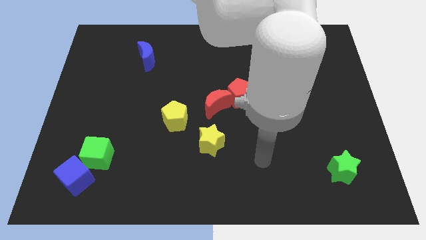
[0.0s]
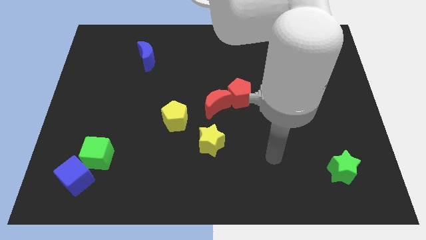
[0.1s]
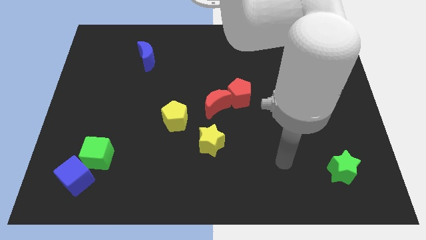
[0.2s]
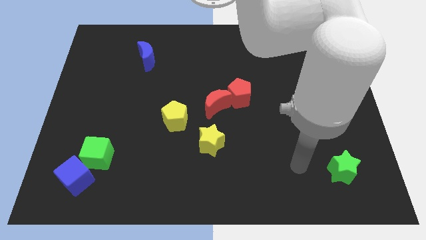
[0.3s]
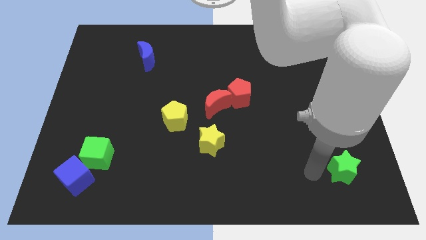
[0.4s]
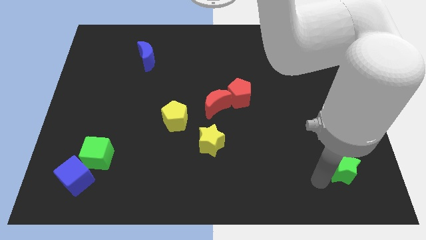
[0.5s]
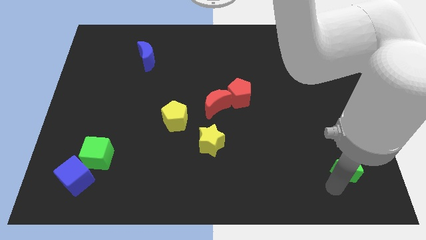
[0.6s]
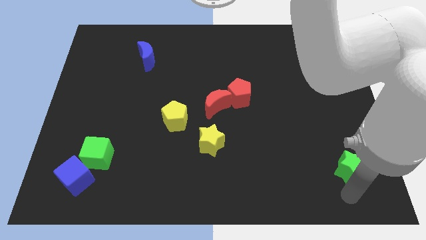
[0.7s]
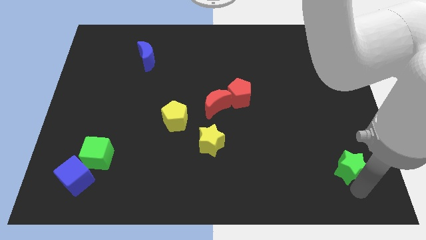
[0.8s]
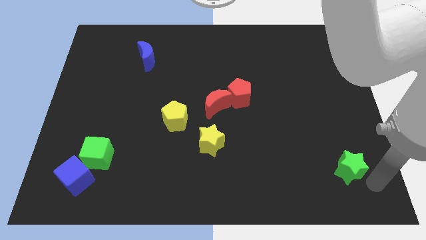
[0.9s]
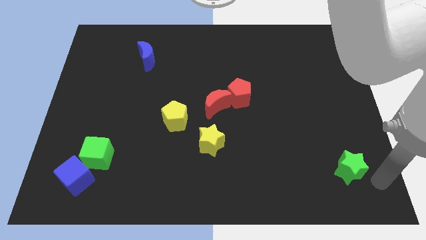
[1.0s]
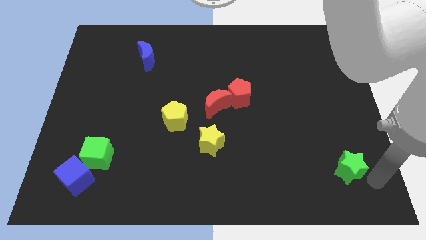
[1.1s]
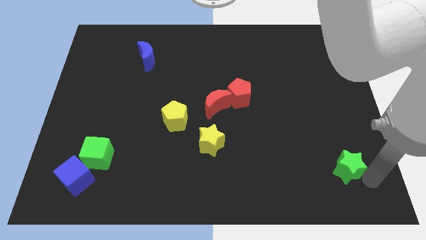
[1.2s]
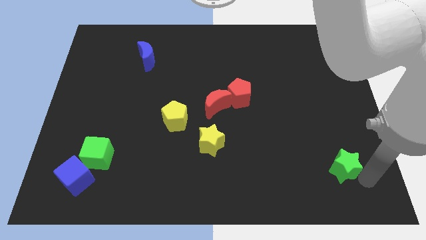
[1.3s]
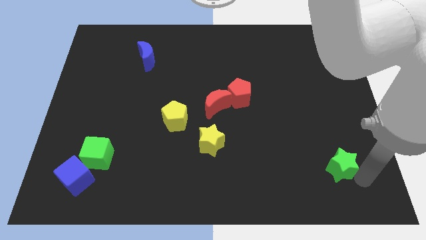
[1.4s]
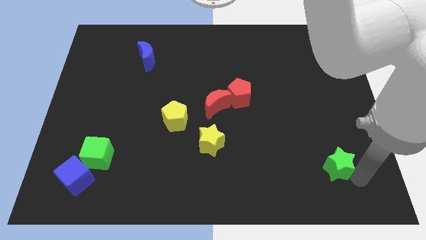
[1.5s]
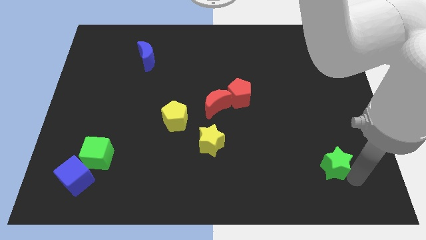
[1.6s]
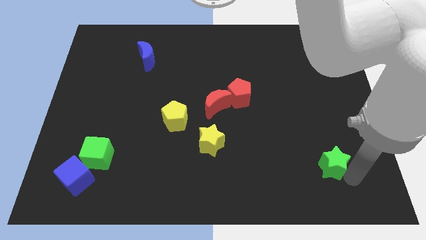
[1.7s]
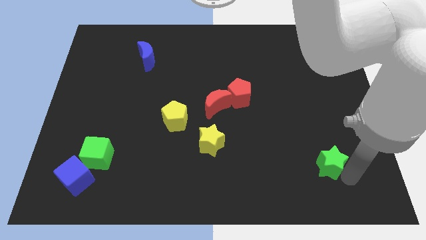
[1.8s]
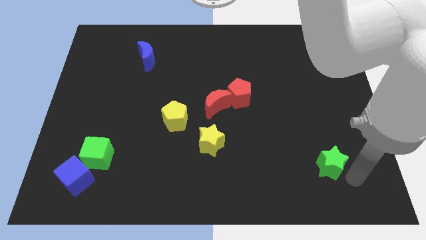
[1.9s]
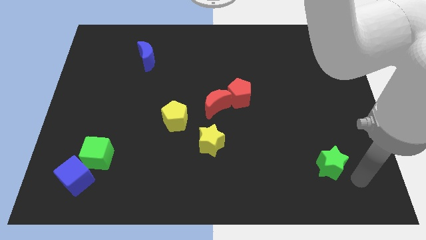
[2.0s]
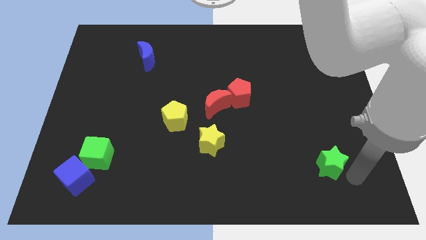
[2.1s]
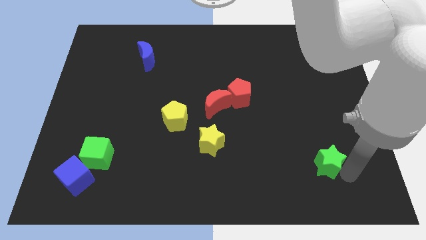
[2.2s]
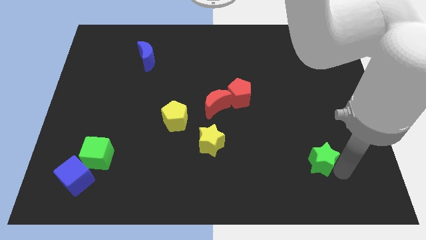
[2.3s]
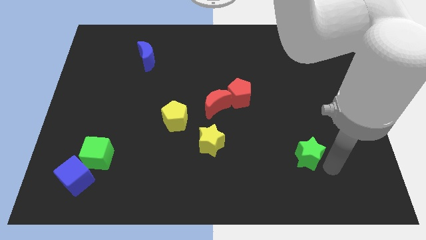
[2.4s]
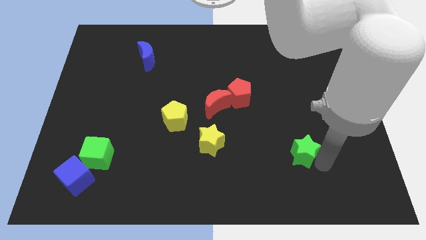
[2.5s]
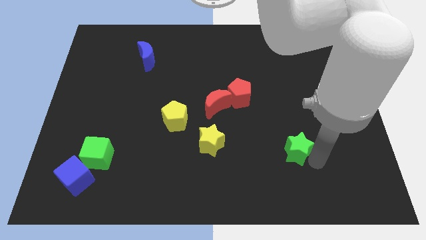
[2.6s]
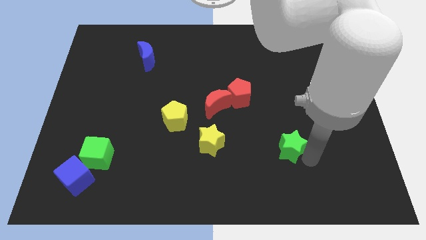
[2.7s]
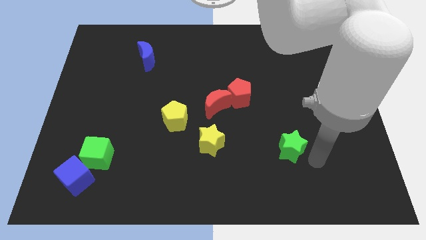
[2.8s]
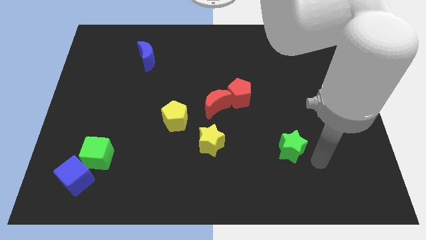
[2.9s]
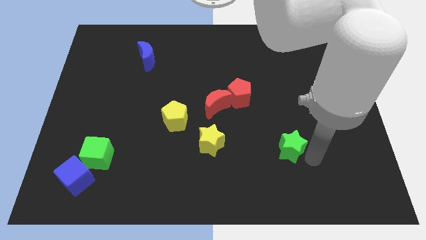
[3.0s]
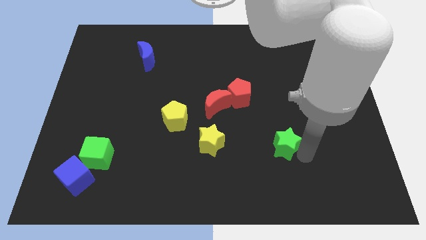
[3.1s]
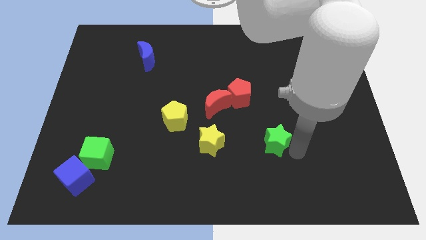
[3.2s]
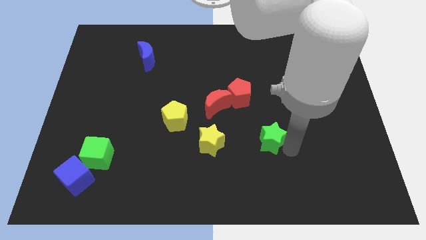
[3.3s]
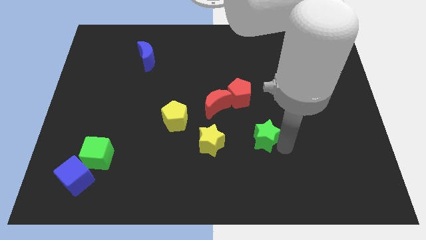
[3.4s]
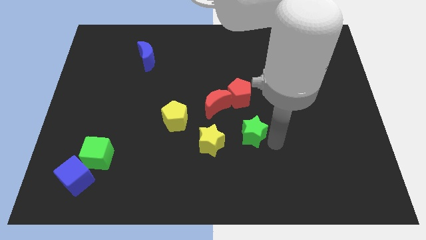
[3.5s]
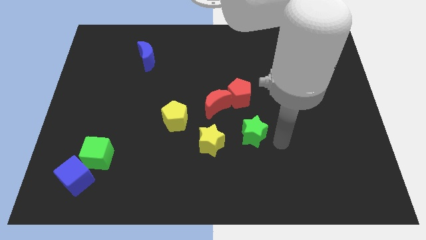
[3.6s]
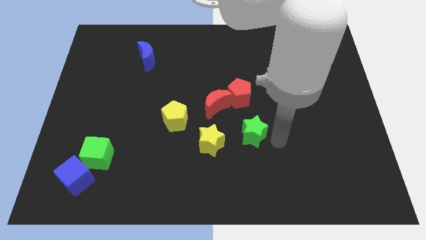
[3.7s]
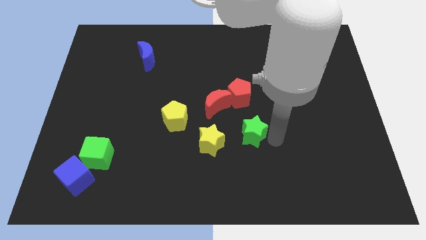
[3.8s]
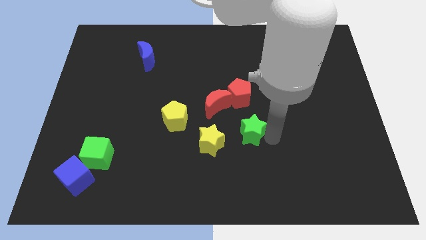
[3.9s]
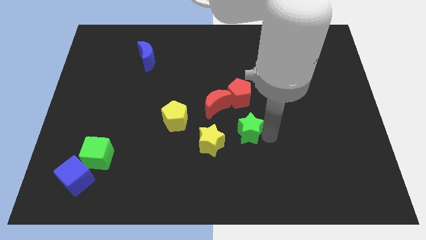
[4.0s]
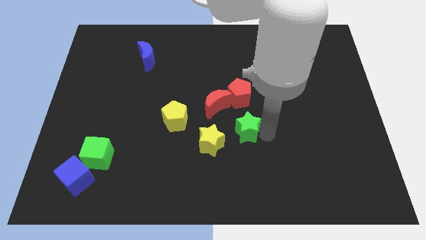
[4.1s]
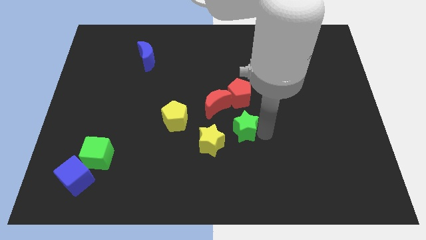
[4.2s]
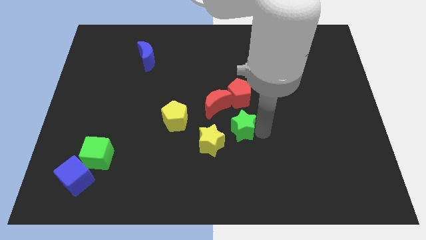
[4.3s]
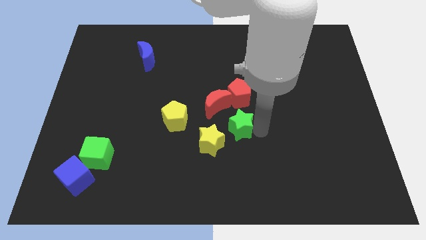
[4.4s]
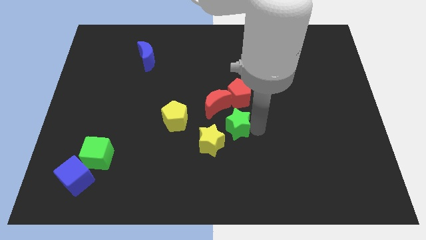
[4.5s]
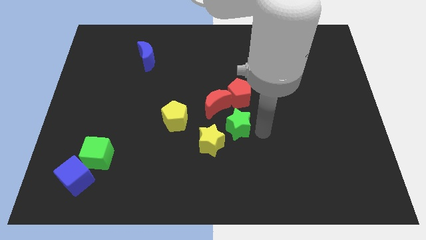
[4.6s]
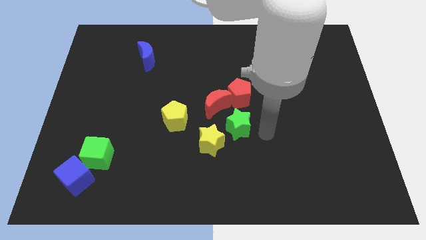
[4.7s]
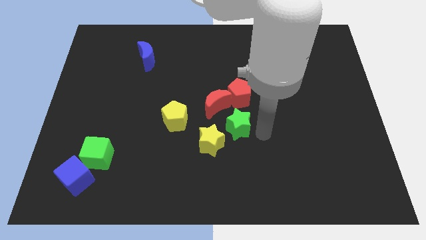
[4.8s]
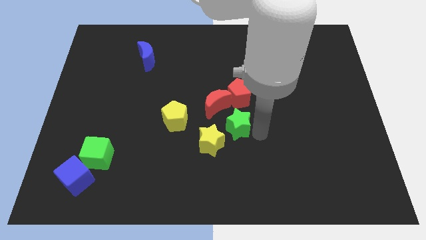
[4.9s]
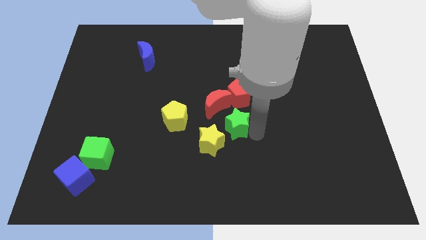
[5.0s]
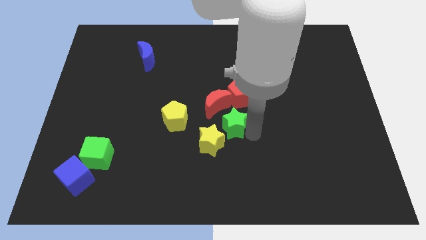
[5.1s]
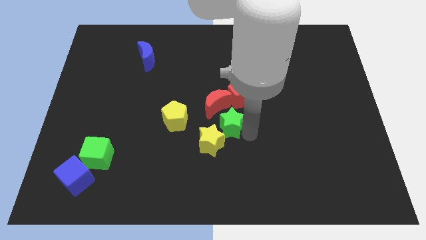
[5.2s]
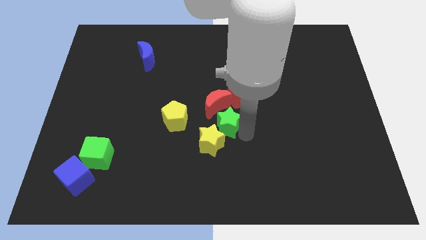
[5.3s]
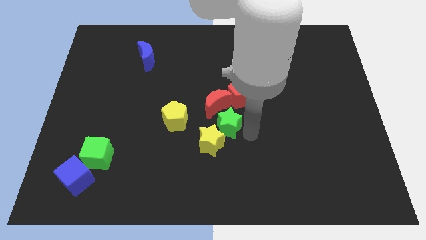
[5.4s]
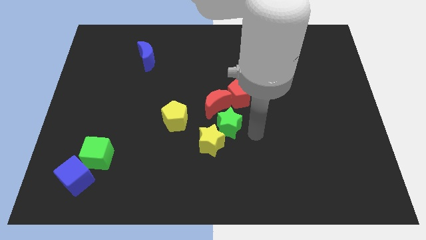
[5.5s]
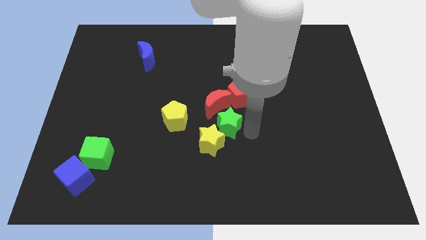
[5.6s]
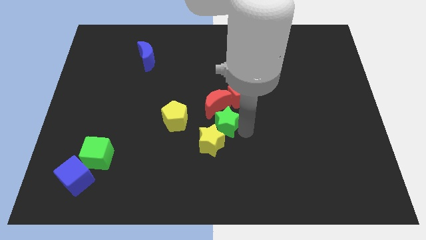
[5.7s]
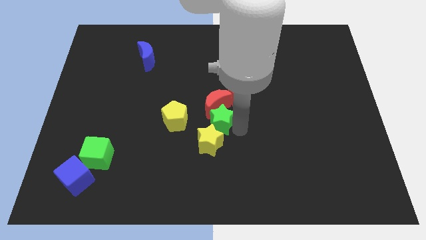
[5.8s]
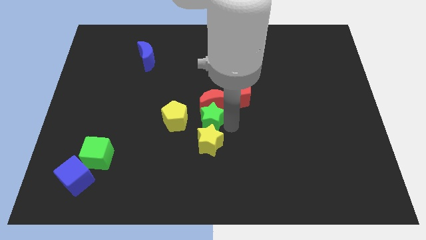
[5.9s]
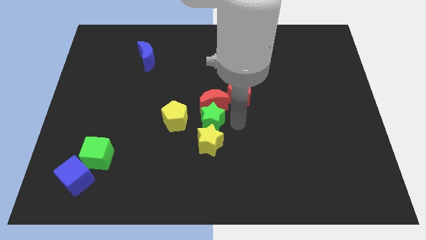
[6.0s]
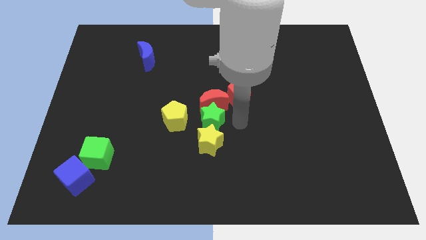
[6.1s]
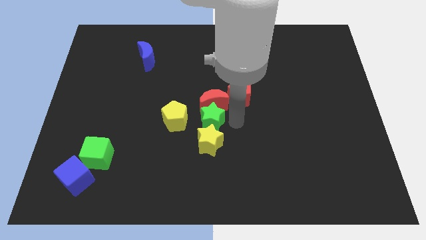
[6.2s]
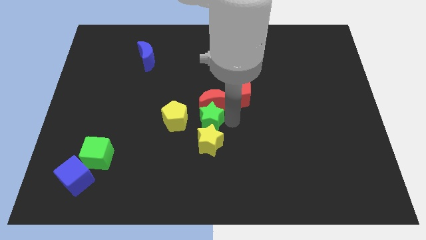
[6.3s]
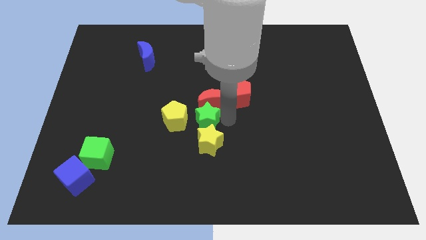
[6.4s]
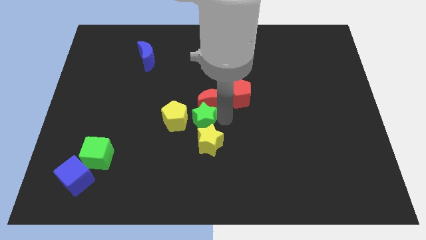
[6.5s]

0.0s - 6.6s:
push the green star to the yellow pentagon
